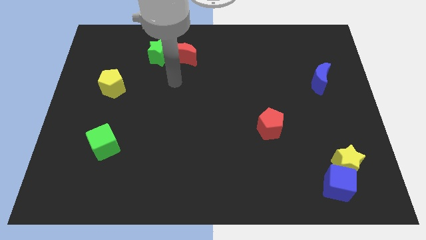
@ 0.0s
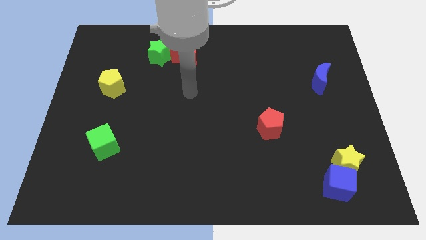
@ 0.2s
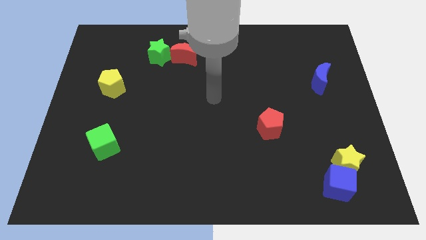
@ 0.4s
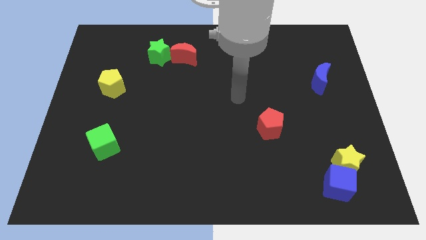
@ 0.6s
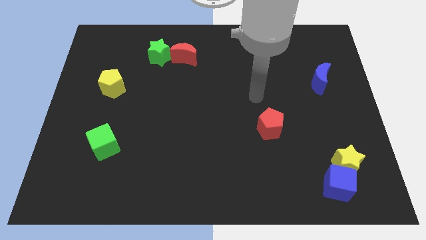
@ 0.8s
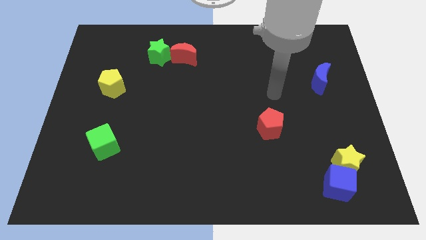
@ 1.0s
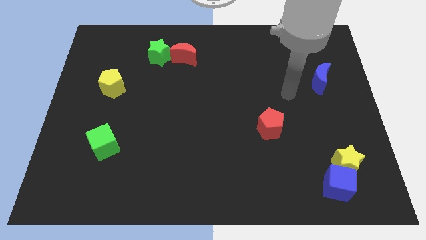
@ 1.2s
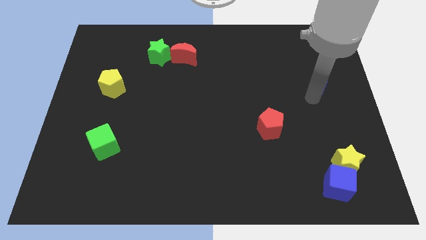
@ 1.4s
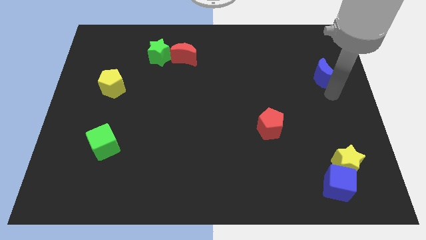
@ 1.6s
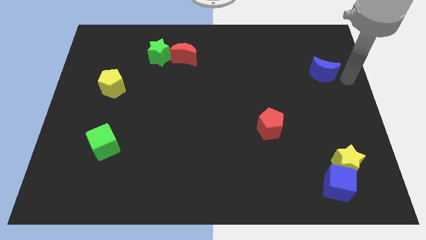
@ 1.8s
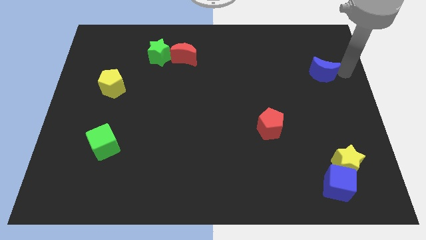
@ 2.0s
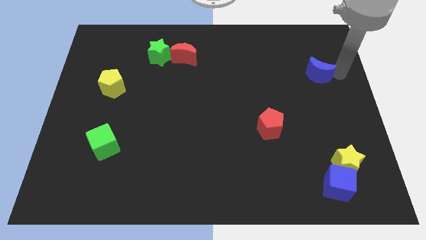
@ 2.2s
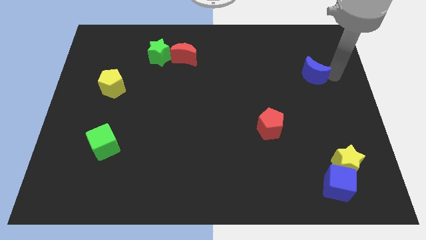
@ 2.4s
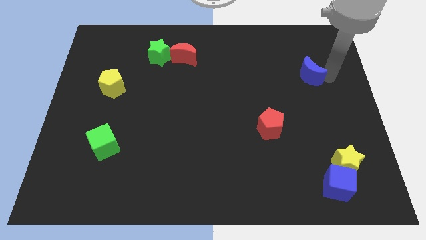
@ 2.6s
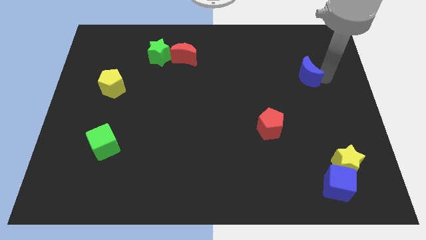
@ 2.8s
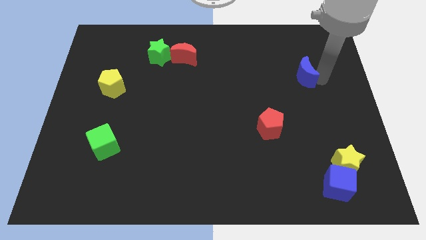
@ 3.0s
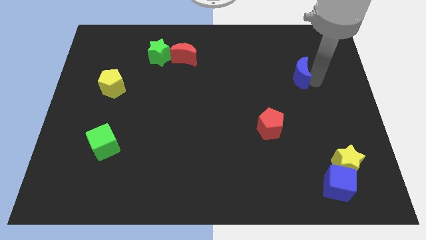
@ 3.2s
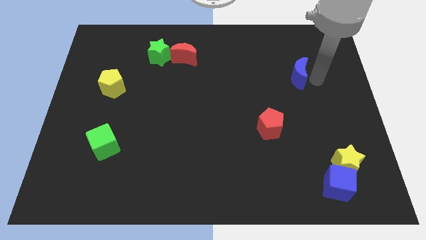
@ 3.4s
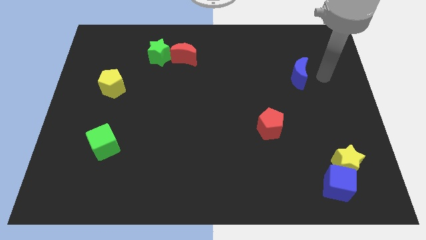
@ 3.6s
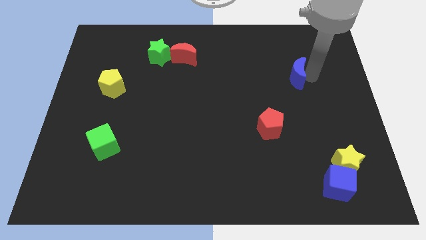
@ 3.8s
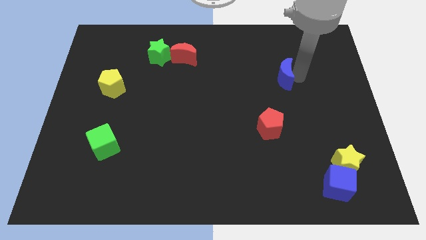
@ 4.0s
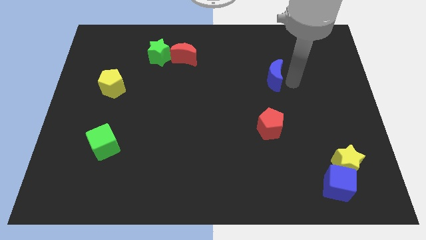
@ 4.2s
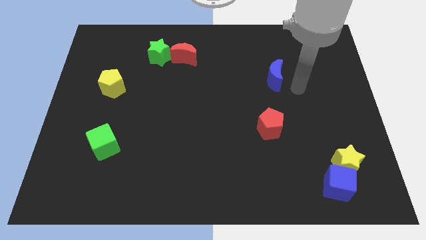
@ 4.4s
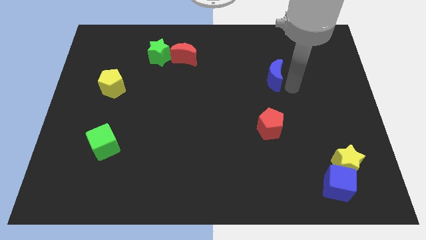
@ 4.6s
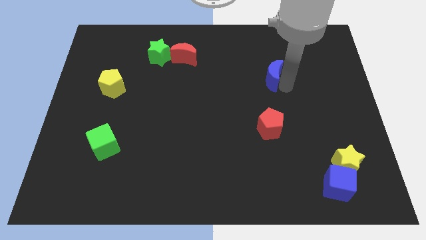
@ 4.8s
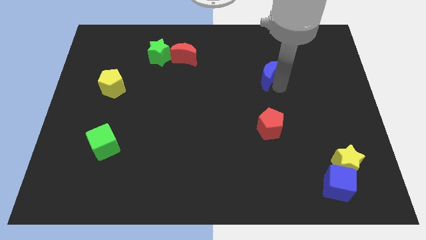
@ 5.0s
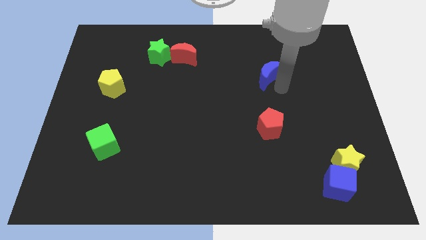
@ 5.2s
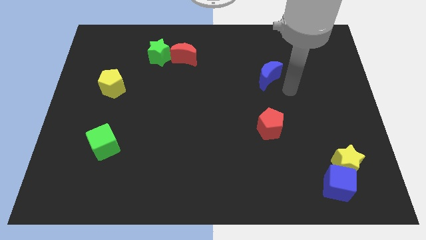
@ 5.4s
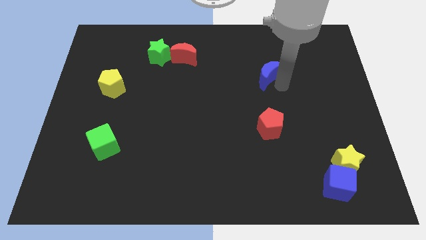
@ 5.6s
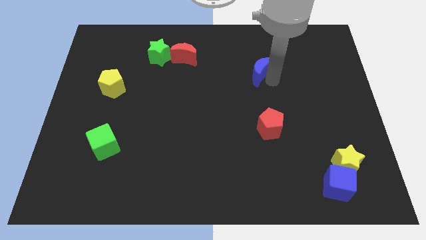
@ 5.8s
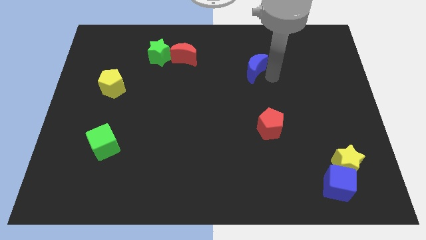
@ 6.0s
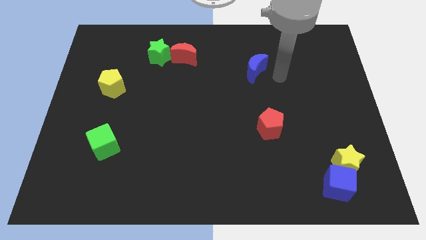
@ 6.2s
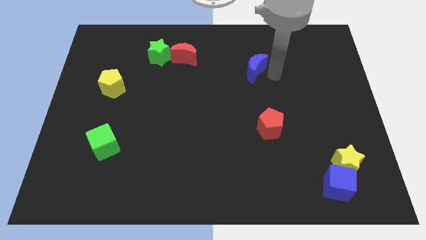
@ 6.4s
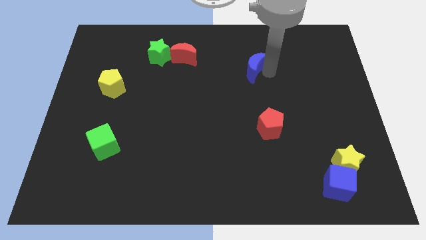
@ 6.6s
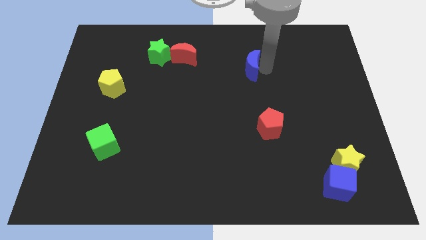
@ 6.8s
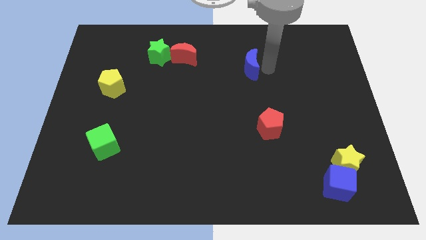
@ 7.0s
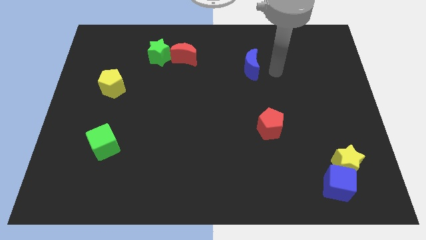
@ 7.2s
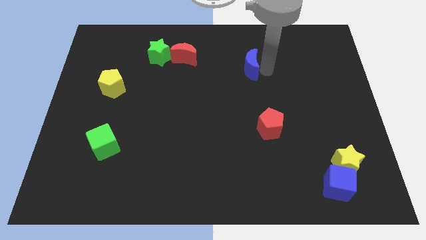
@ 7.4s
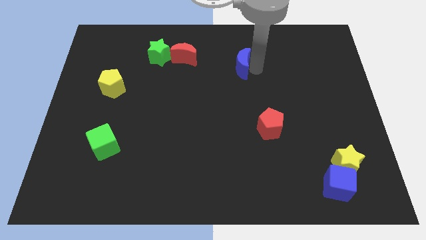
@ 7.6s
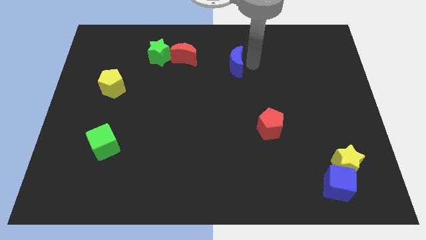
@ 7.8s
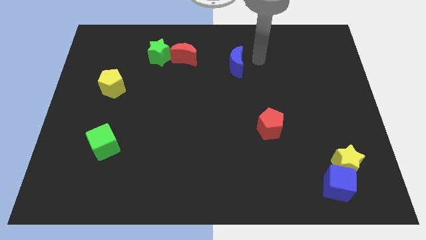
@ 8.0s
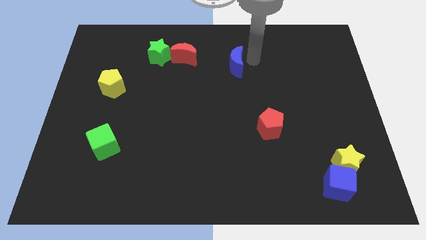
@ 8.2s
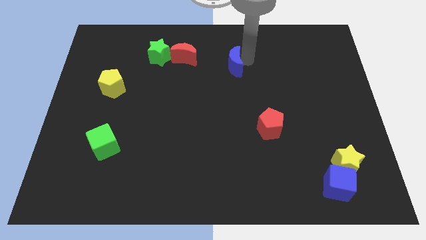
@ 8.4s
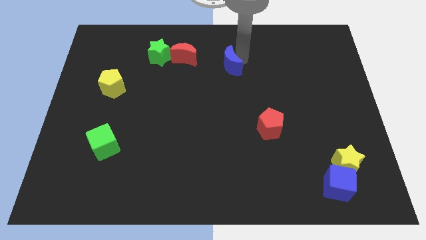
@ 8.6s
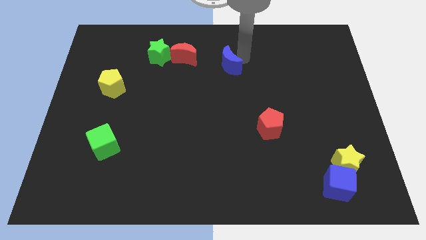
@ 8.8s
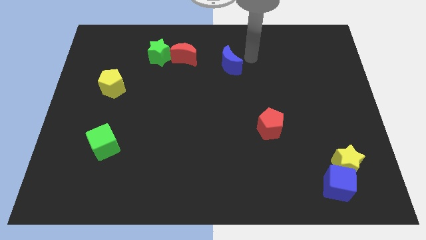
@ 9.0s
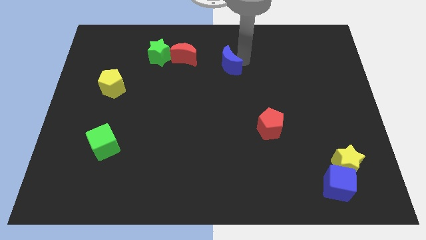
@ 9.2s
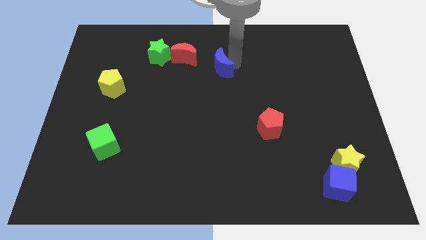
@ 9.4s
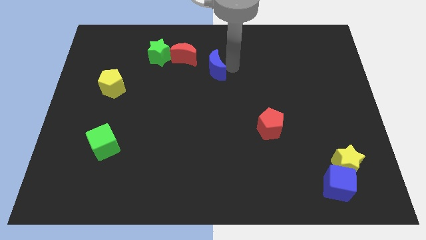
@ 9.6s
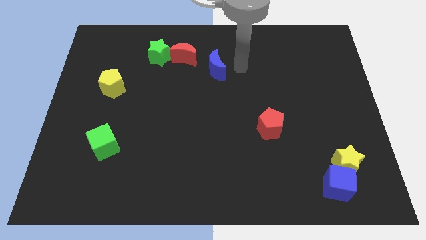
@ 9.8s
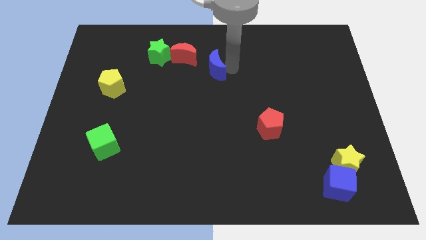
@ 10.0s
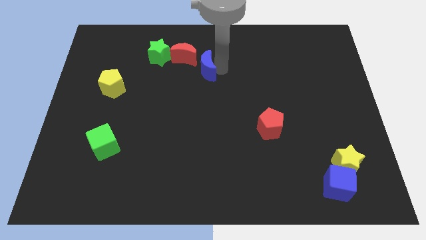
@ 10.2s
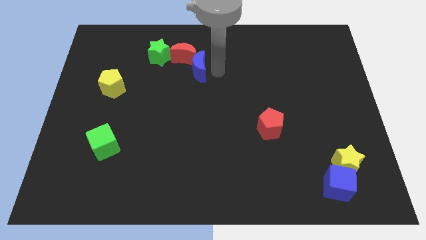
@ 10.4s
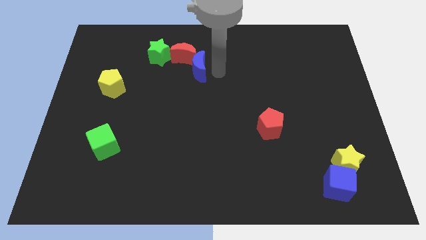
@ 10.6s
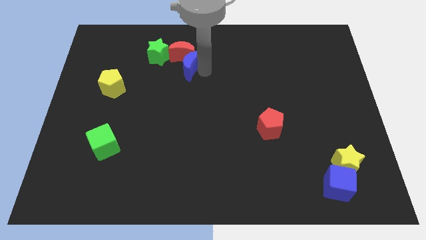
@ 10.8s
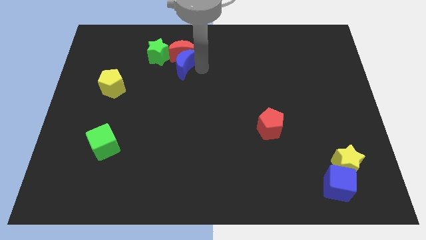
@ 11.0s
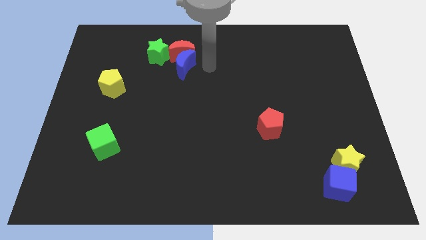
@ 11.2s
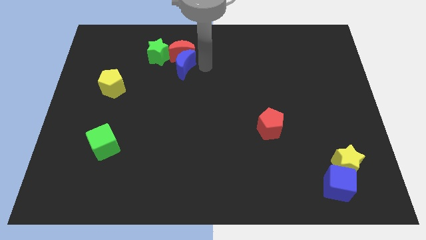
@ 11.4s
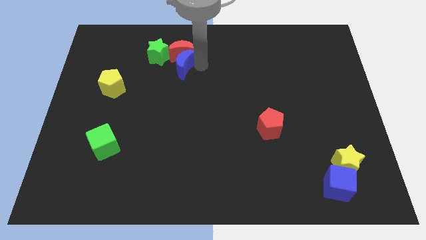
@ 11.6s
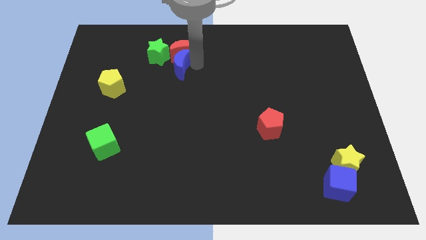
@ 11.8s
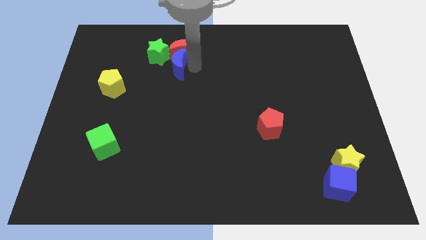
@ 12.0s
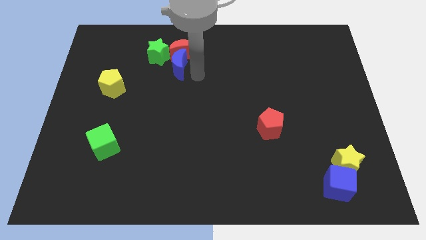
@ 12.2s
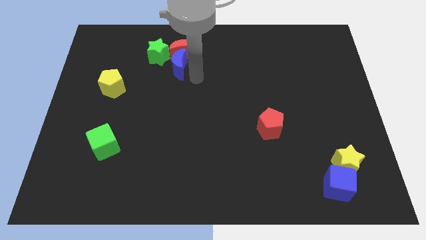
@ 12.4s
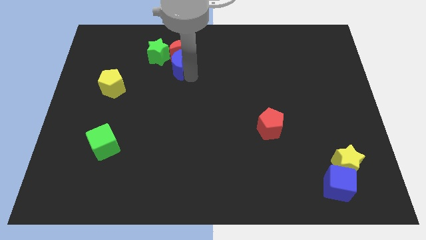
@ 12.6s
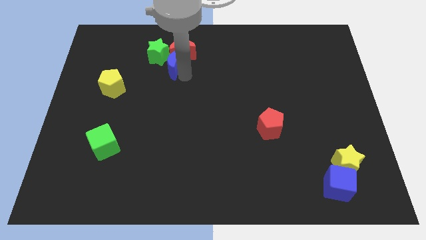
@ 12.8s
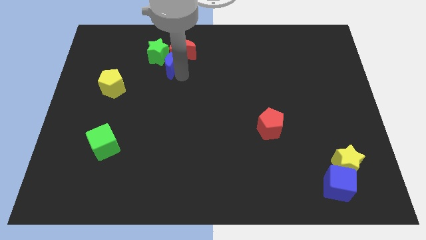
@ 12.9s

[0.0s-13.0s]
move the blue moon towards the green star

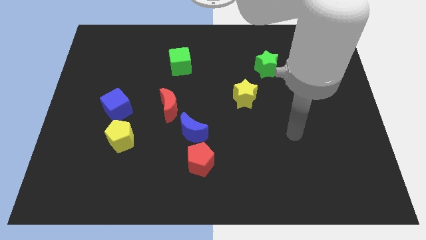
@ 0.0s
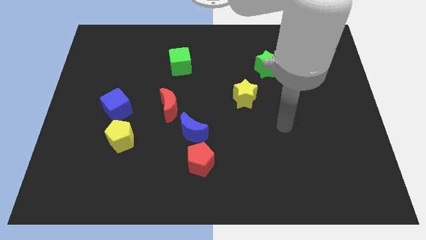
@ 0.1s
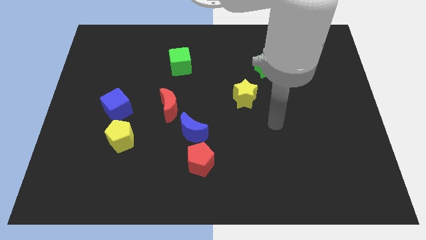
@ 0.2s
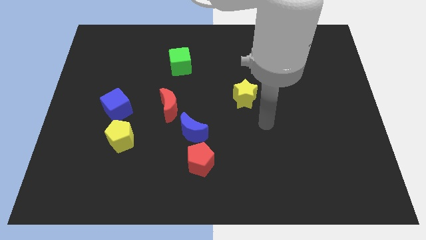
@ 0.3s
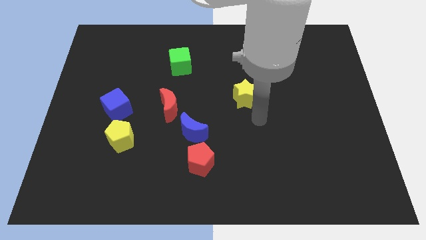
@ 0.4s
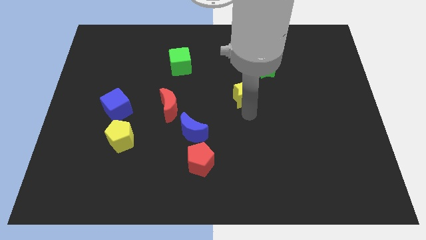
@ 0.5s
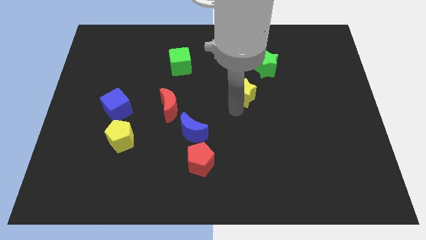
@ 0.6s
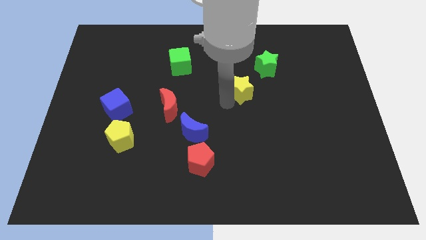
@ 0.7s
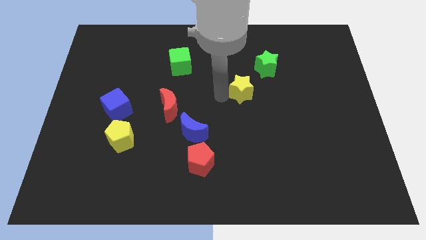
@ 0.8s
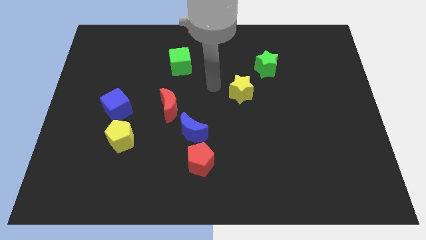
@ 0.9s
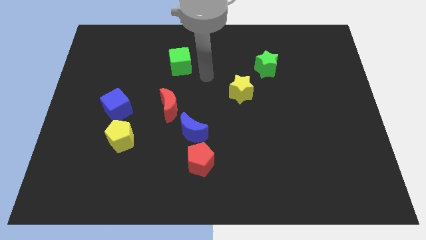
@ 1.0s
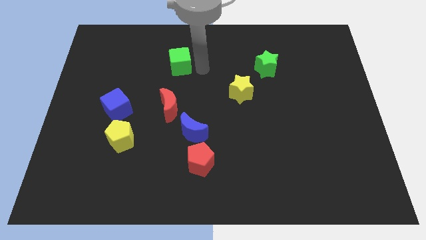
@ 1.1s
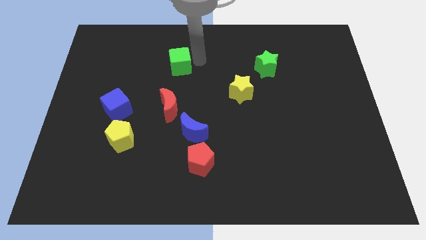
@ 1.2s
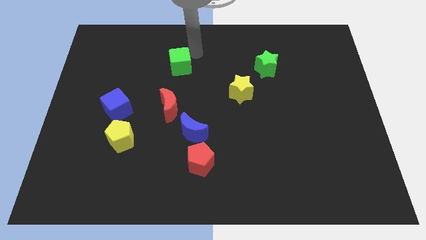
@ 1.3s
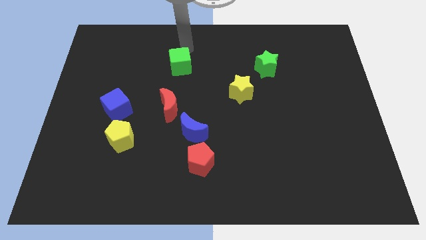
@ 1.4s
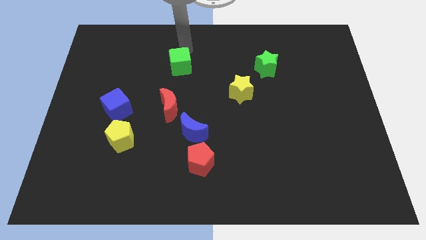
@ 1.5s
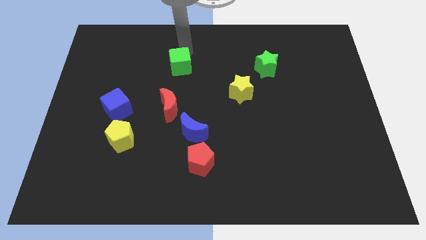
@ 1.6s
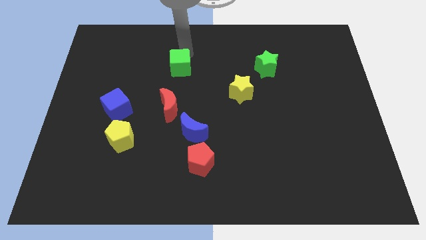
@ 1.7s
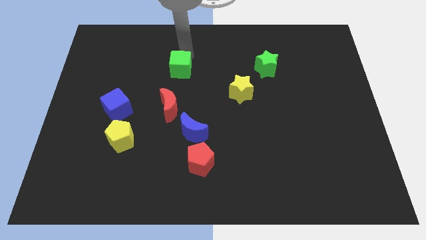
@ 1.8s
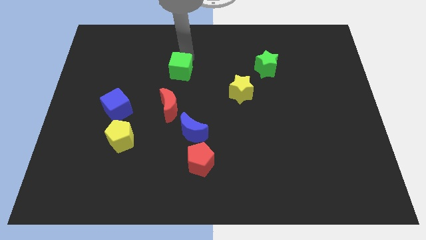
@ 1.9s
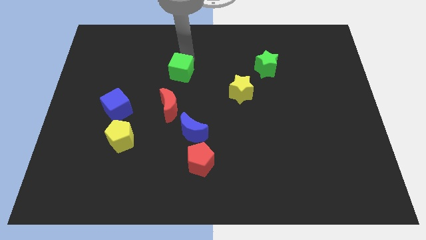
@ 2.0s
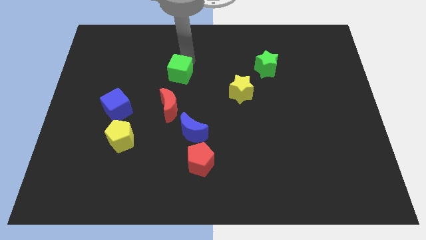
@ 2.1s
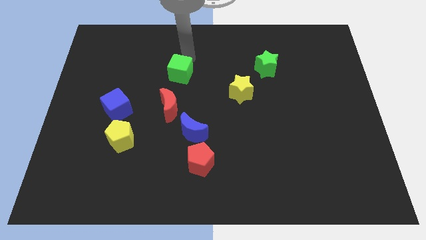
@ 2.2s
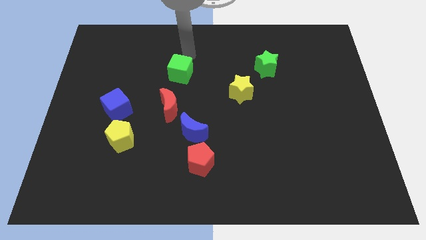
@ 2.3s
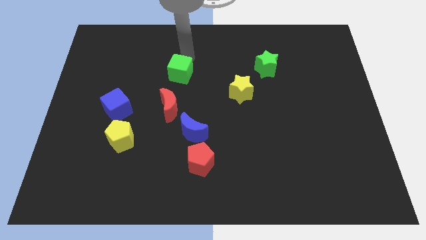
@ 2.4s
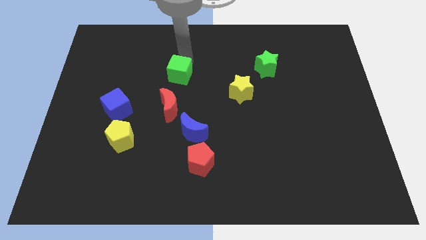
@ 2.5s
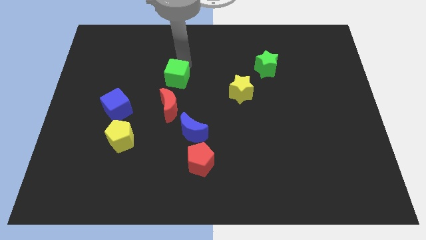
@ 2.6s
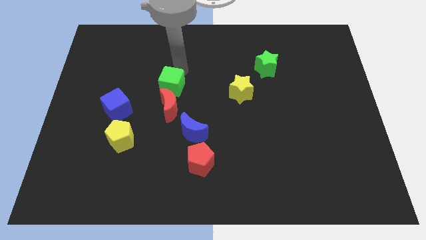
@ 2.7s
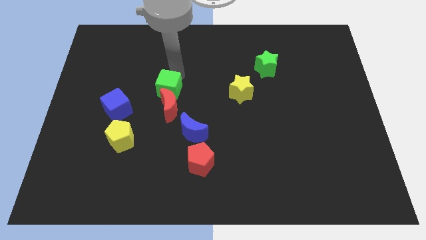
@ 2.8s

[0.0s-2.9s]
put the green cube to the red moon
